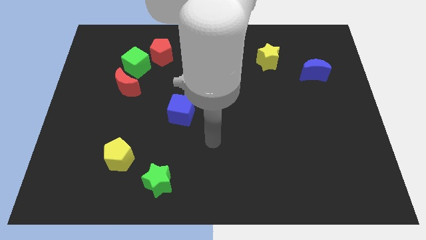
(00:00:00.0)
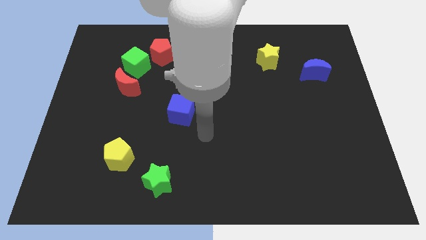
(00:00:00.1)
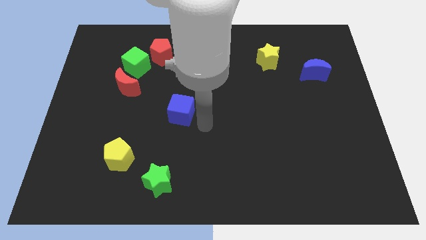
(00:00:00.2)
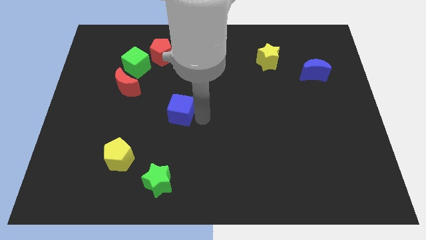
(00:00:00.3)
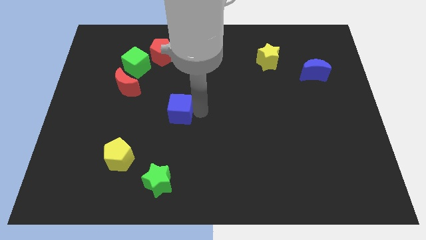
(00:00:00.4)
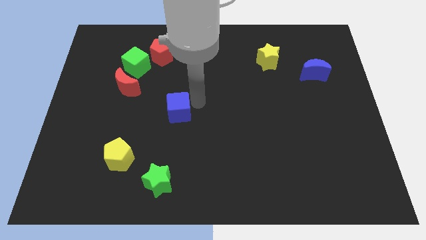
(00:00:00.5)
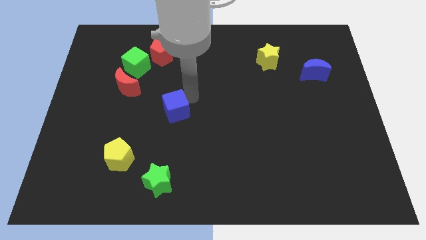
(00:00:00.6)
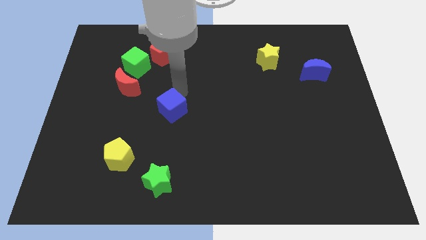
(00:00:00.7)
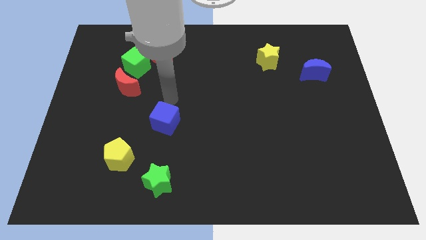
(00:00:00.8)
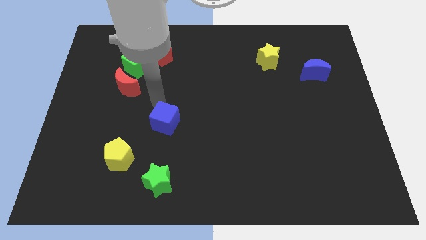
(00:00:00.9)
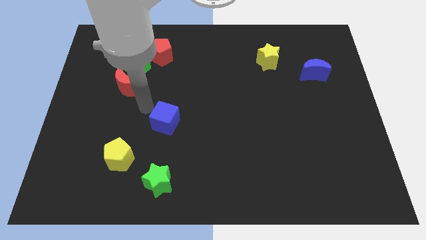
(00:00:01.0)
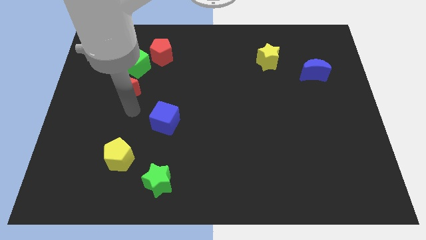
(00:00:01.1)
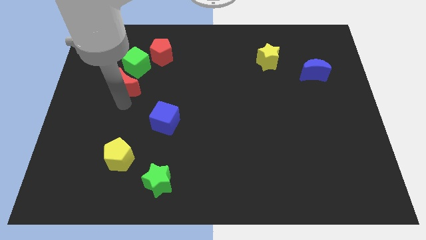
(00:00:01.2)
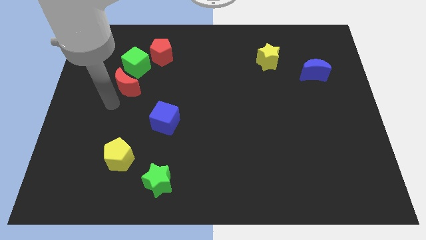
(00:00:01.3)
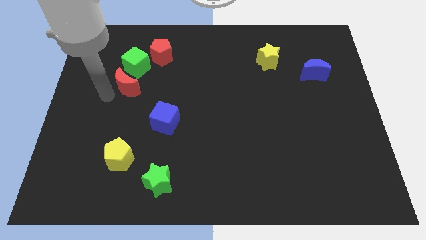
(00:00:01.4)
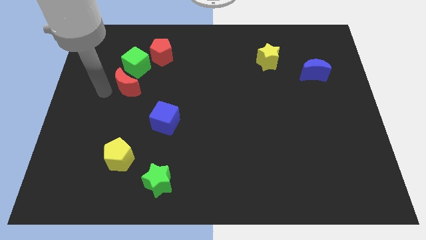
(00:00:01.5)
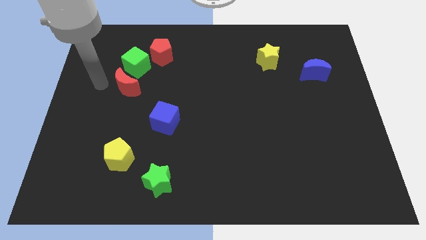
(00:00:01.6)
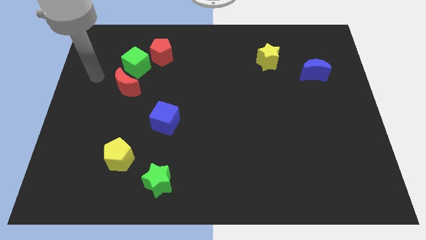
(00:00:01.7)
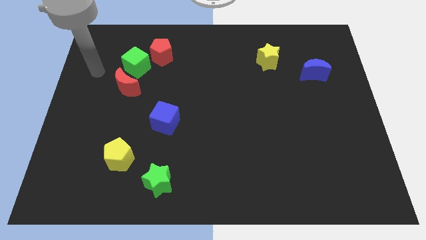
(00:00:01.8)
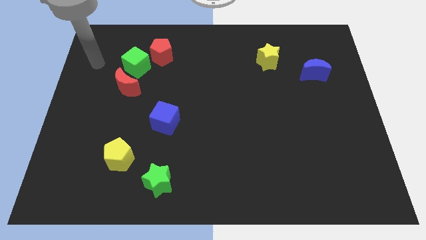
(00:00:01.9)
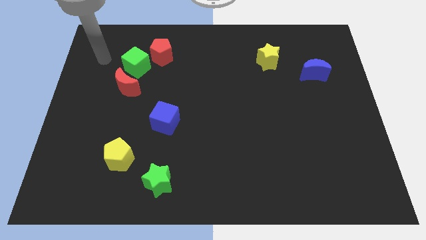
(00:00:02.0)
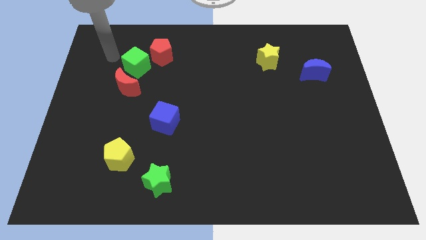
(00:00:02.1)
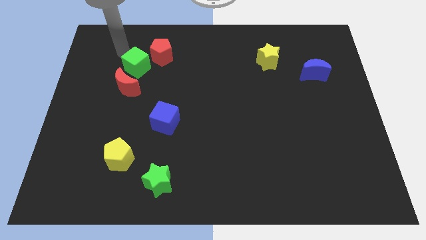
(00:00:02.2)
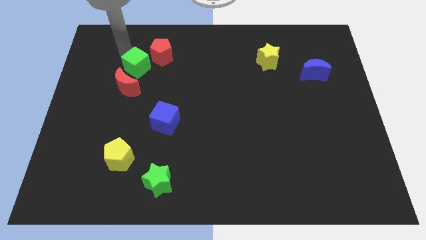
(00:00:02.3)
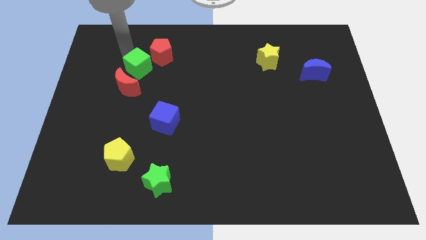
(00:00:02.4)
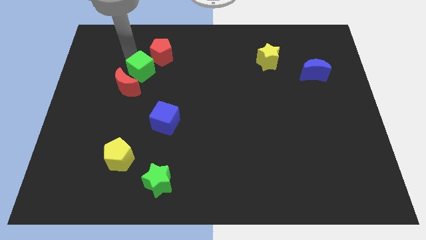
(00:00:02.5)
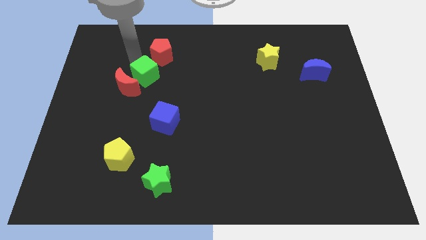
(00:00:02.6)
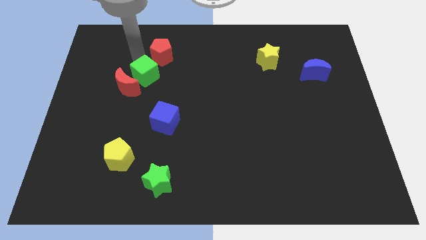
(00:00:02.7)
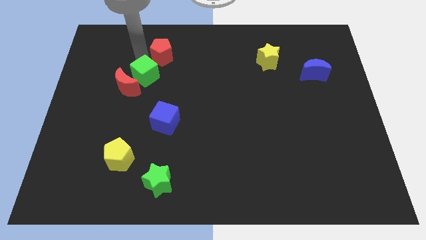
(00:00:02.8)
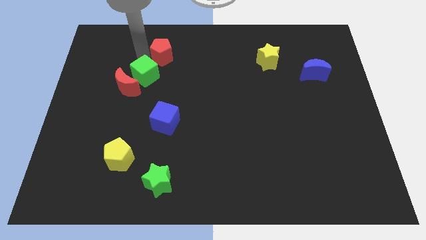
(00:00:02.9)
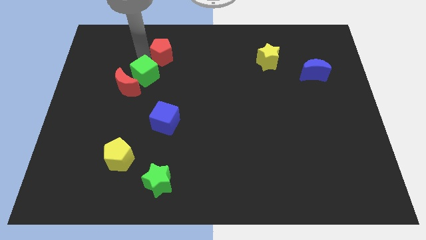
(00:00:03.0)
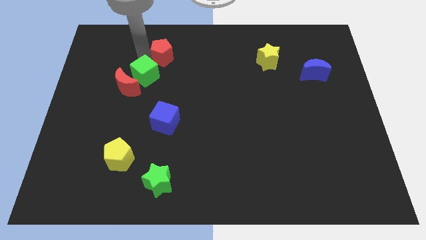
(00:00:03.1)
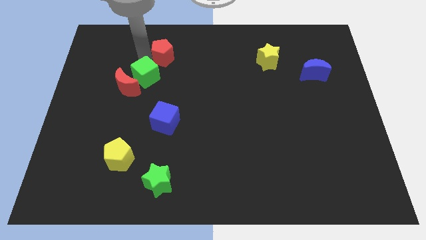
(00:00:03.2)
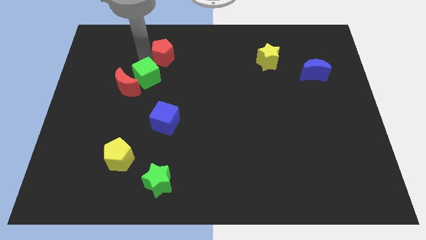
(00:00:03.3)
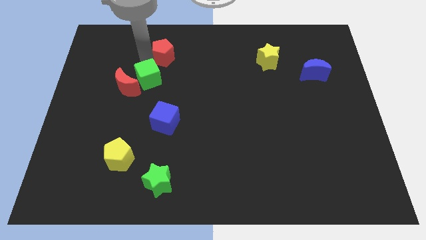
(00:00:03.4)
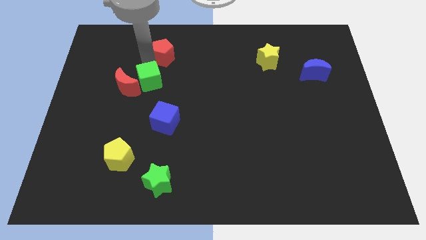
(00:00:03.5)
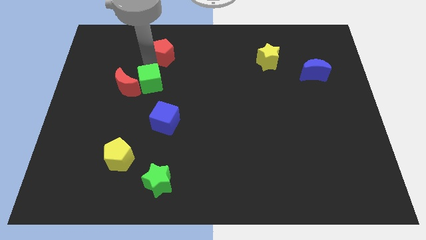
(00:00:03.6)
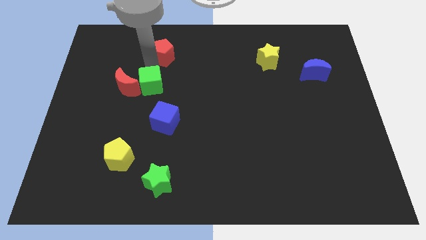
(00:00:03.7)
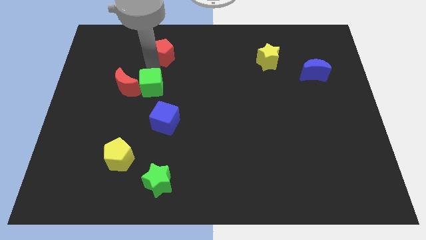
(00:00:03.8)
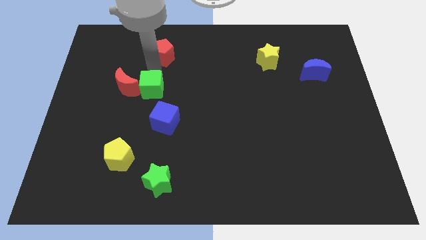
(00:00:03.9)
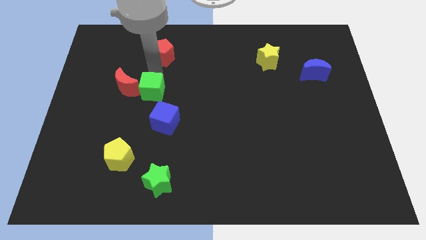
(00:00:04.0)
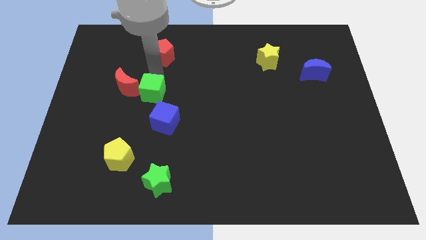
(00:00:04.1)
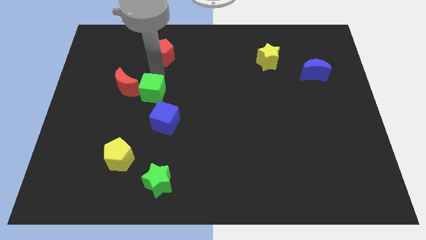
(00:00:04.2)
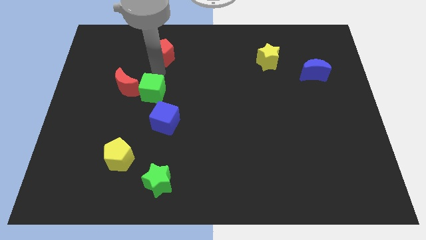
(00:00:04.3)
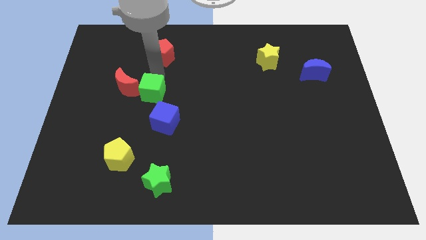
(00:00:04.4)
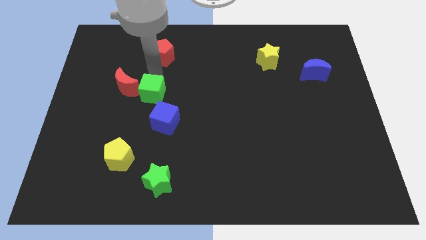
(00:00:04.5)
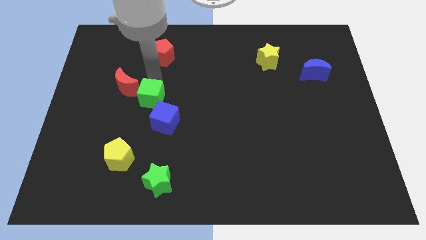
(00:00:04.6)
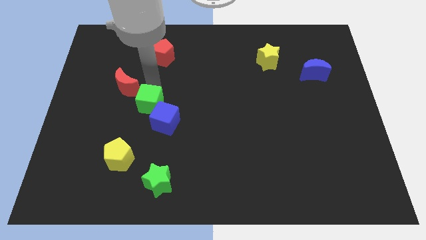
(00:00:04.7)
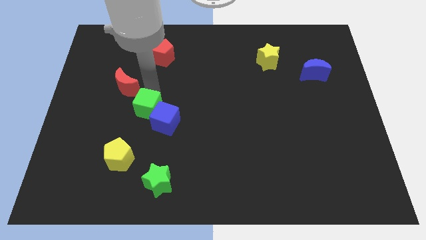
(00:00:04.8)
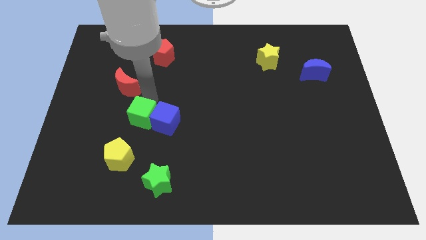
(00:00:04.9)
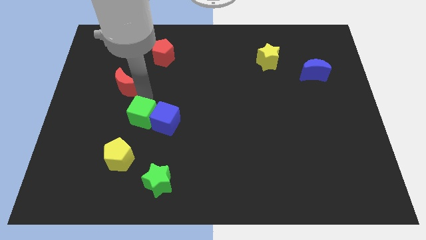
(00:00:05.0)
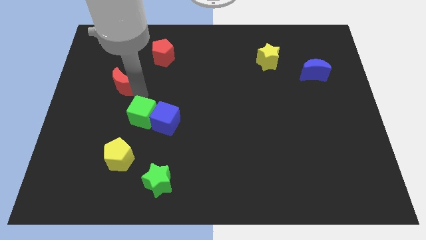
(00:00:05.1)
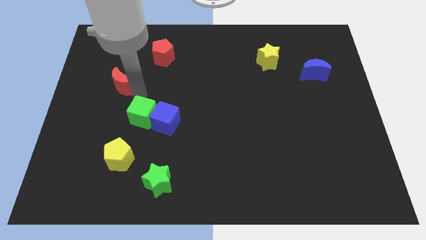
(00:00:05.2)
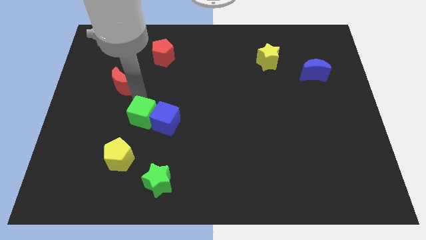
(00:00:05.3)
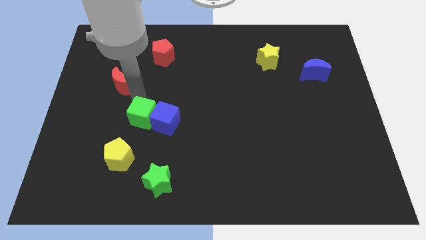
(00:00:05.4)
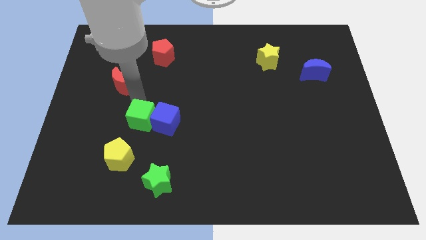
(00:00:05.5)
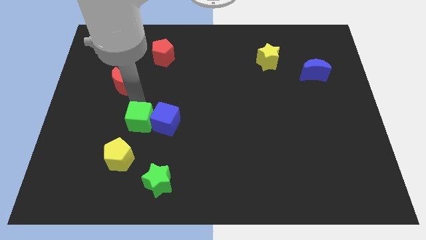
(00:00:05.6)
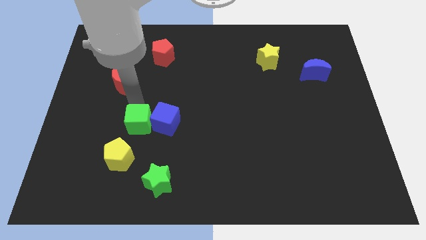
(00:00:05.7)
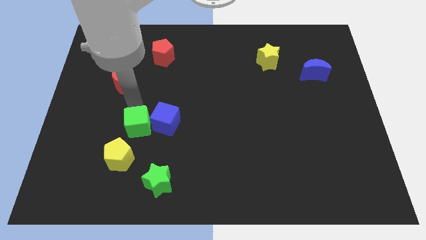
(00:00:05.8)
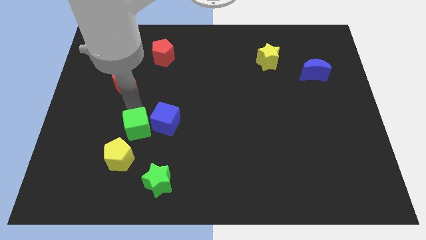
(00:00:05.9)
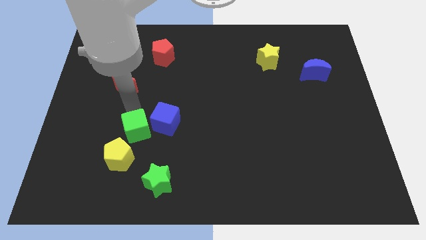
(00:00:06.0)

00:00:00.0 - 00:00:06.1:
push the green cube down

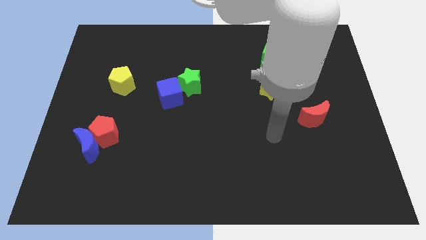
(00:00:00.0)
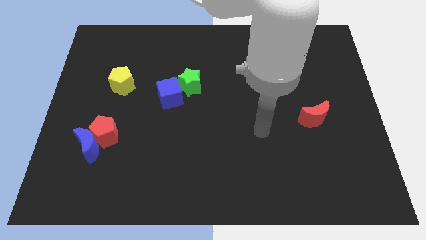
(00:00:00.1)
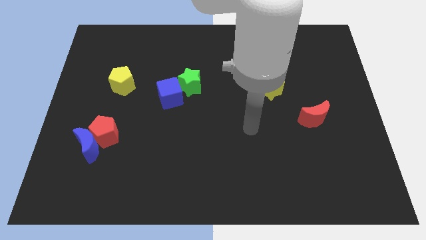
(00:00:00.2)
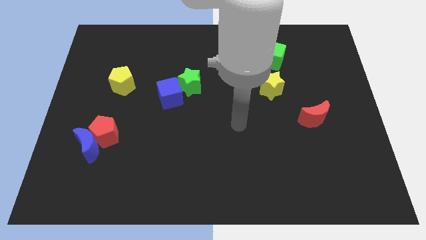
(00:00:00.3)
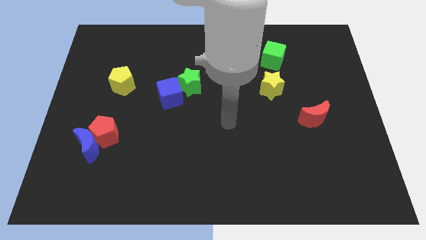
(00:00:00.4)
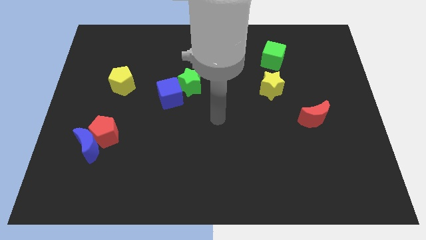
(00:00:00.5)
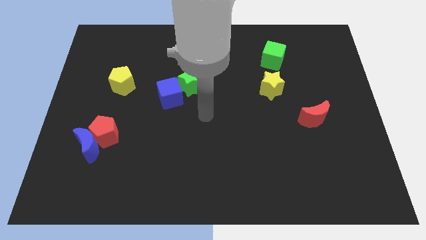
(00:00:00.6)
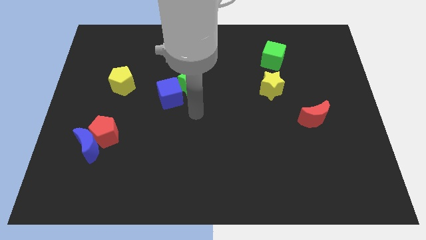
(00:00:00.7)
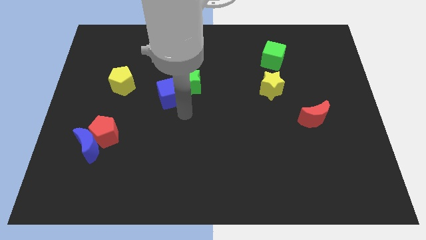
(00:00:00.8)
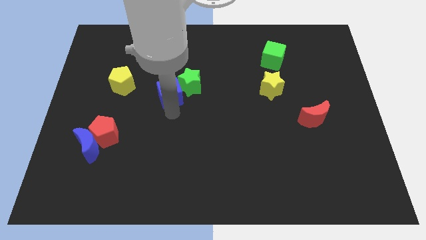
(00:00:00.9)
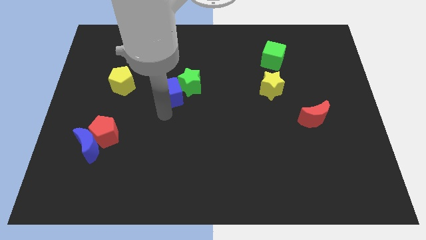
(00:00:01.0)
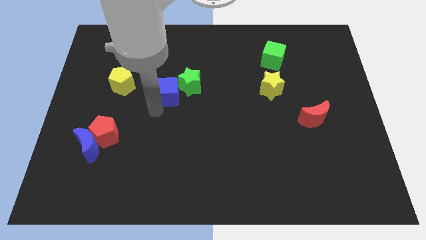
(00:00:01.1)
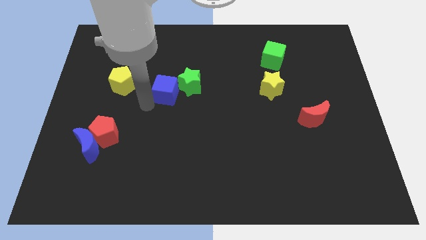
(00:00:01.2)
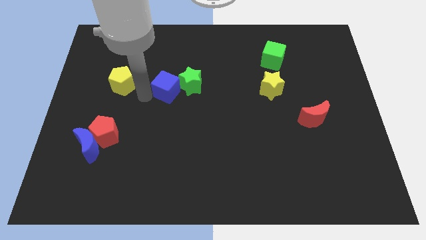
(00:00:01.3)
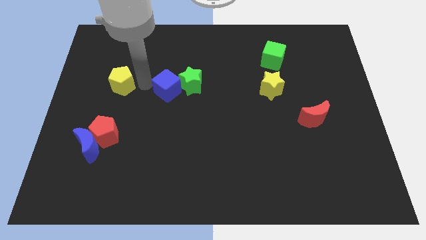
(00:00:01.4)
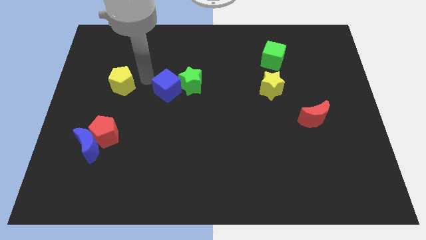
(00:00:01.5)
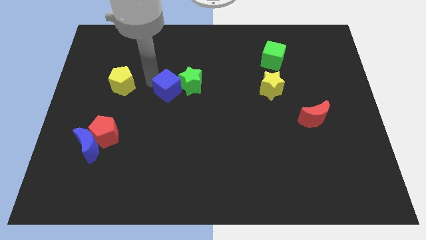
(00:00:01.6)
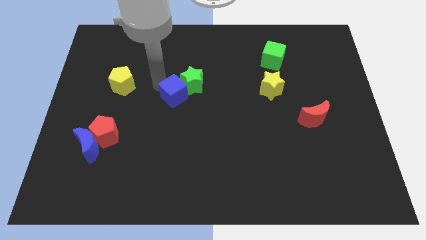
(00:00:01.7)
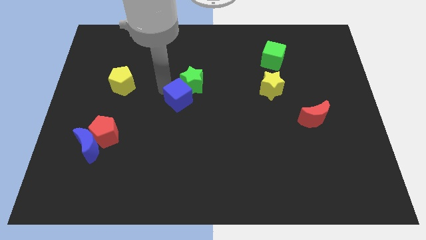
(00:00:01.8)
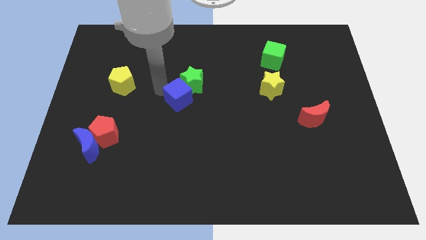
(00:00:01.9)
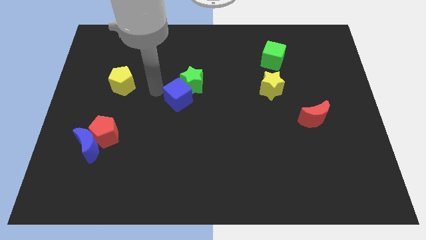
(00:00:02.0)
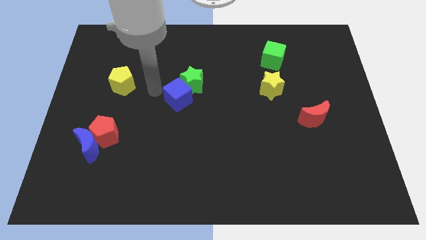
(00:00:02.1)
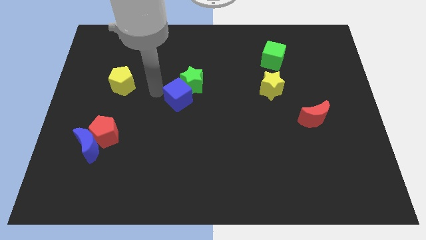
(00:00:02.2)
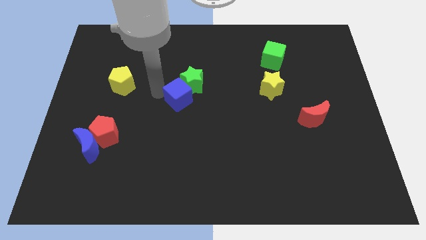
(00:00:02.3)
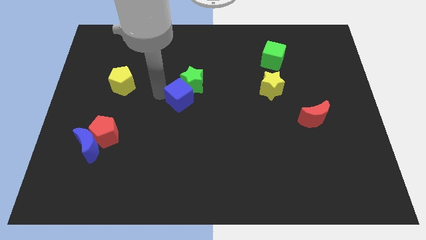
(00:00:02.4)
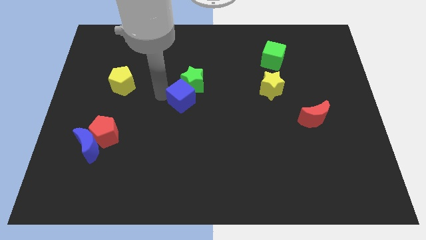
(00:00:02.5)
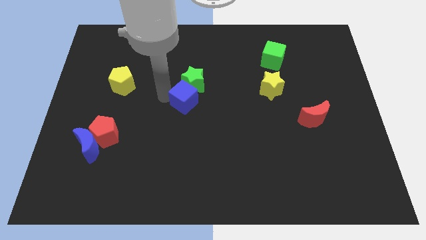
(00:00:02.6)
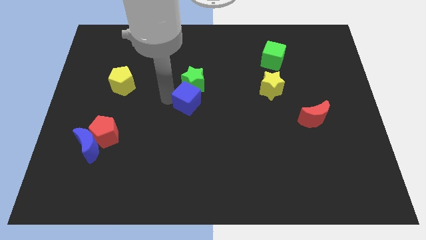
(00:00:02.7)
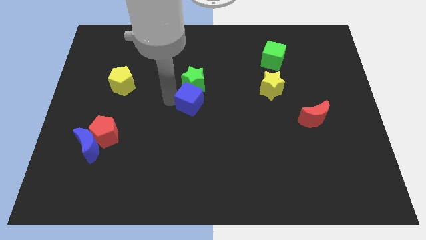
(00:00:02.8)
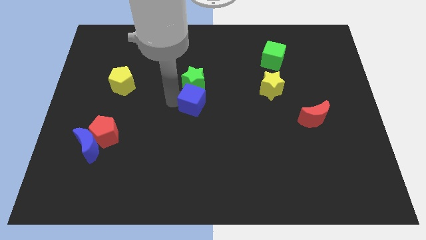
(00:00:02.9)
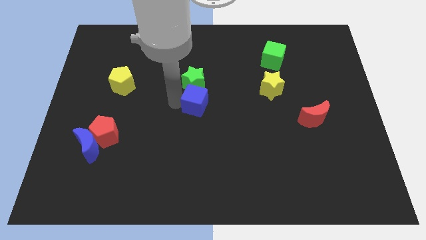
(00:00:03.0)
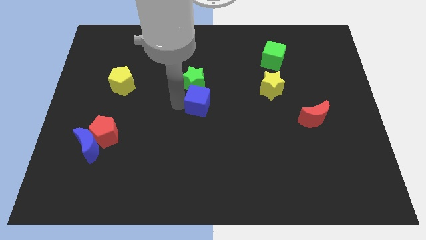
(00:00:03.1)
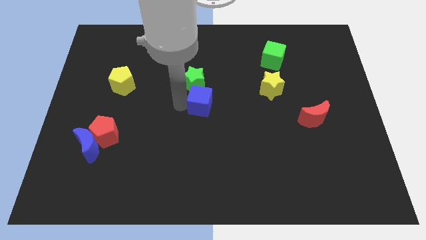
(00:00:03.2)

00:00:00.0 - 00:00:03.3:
push the blue cube to the right a bit
